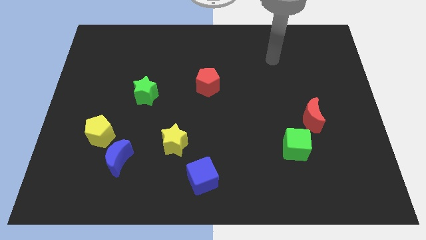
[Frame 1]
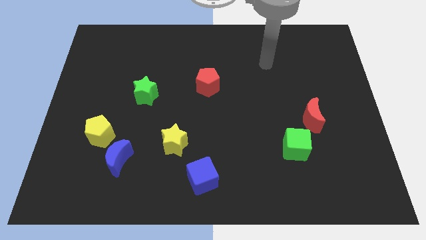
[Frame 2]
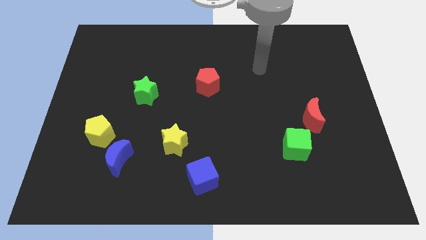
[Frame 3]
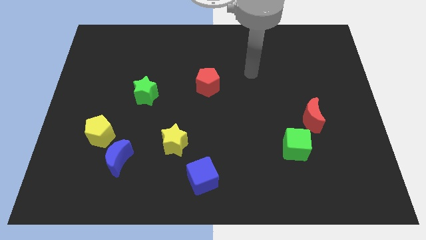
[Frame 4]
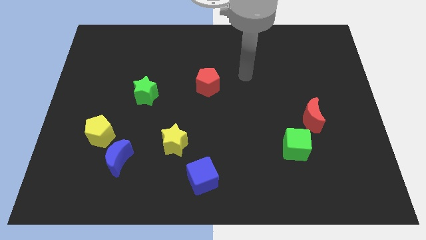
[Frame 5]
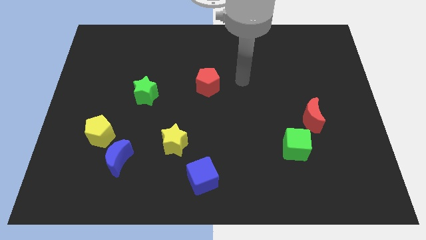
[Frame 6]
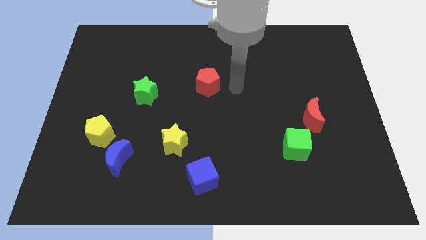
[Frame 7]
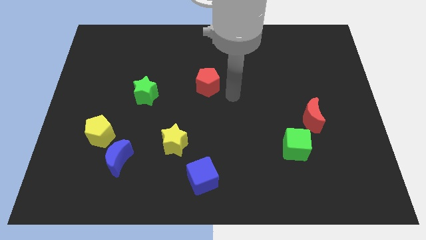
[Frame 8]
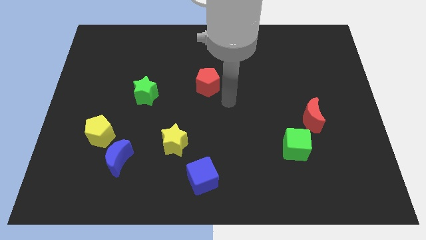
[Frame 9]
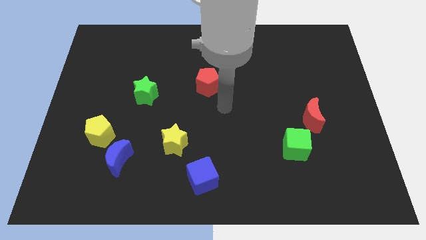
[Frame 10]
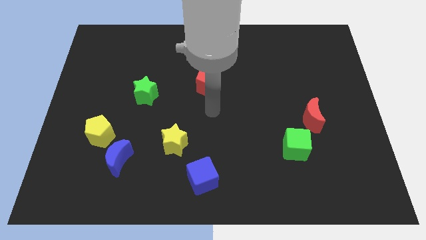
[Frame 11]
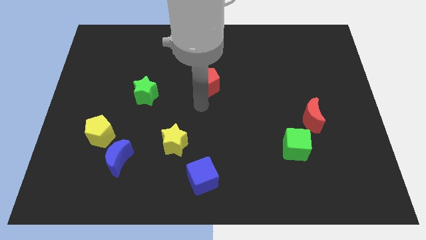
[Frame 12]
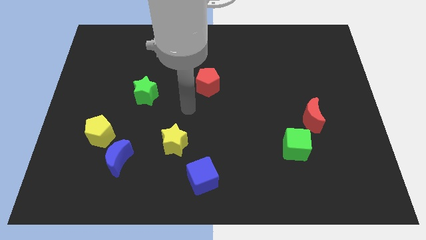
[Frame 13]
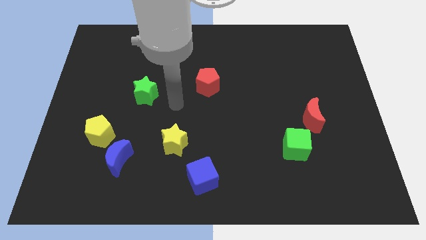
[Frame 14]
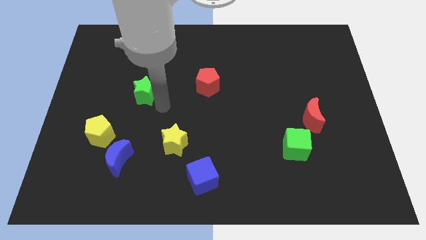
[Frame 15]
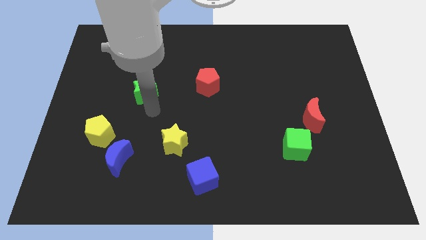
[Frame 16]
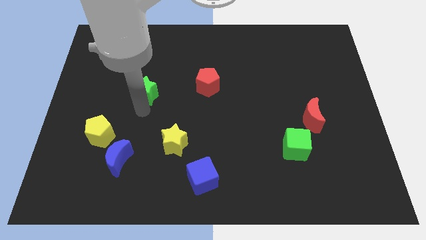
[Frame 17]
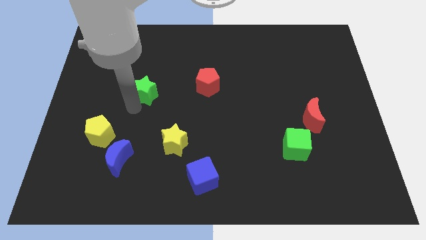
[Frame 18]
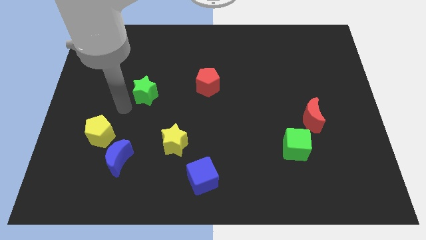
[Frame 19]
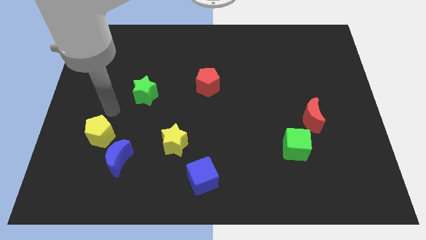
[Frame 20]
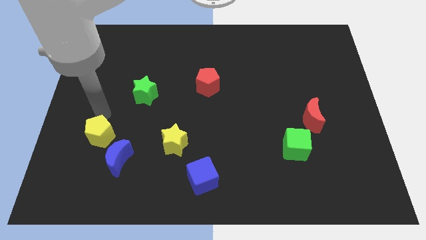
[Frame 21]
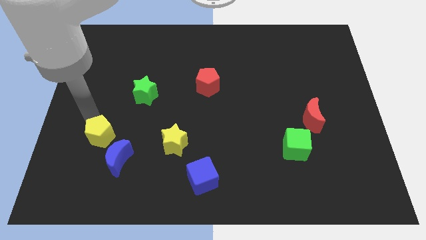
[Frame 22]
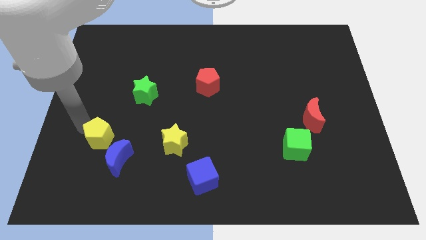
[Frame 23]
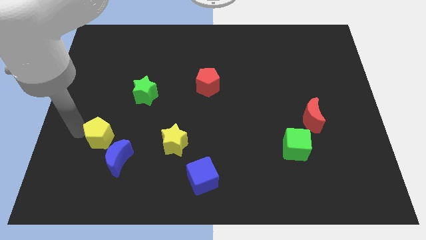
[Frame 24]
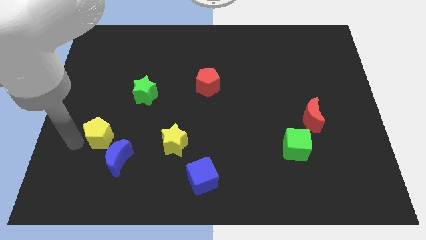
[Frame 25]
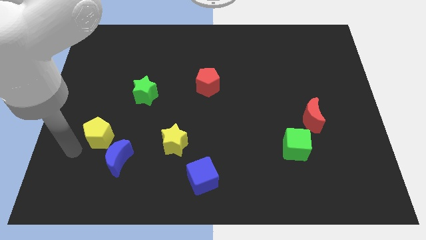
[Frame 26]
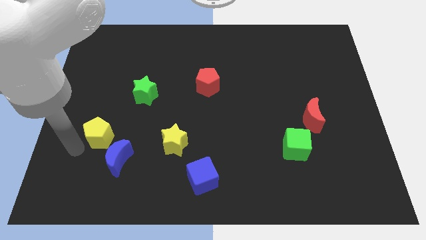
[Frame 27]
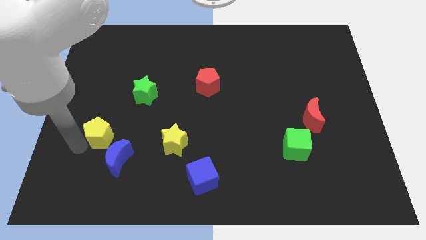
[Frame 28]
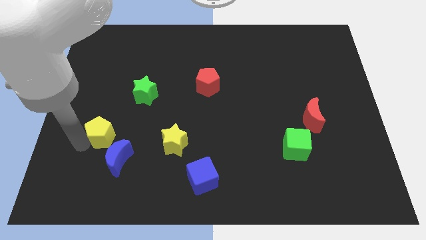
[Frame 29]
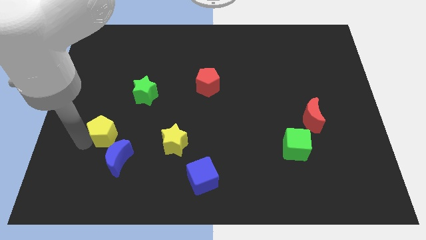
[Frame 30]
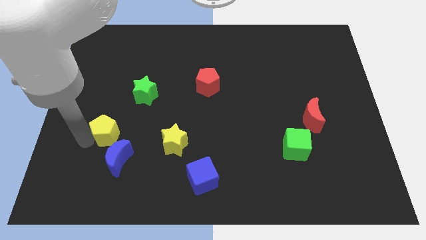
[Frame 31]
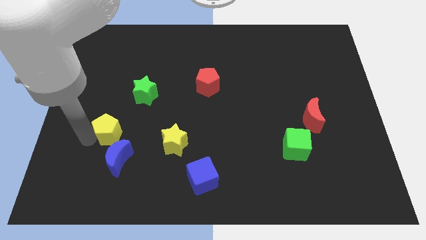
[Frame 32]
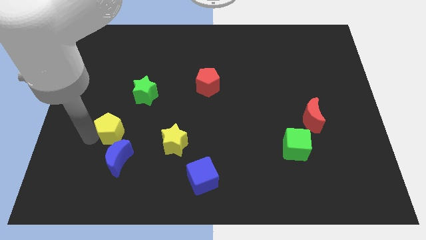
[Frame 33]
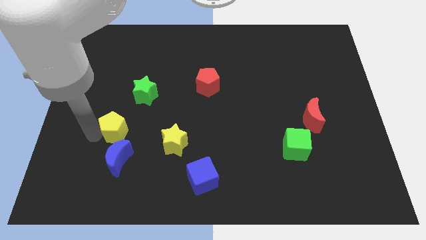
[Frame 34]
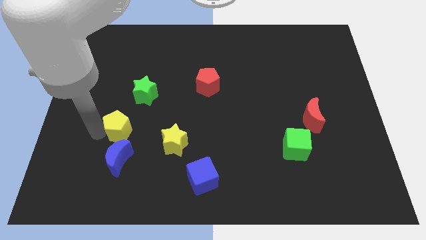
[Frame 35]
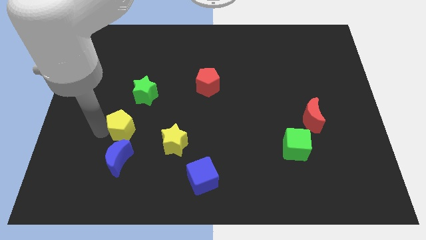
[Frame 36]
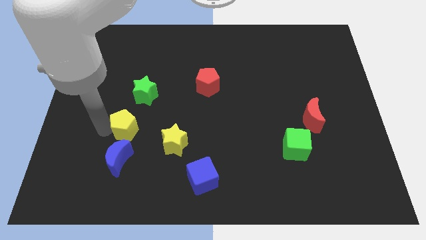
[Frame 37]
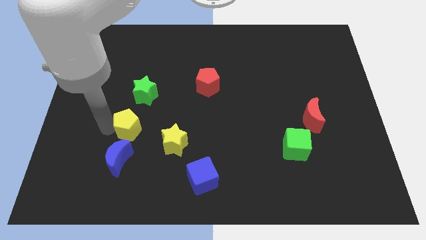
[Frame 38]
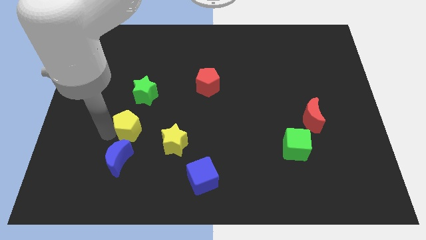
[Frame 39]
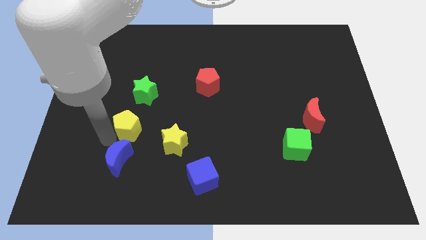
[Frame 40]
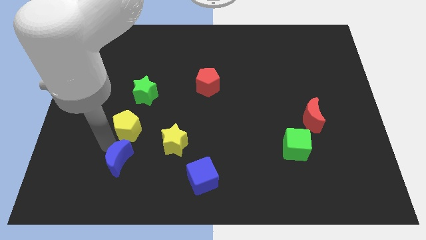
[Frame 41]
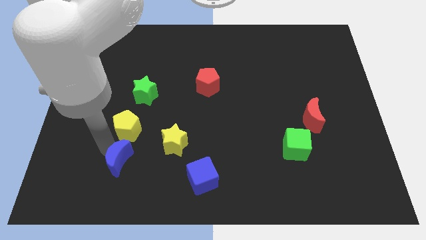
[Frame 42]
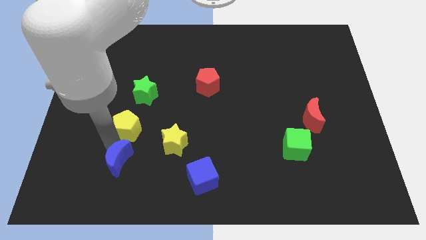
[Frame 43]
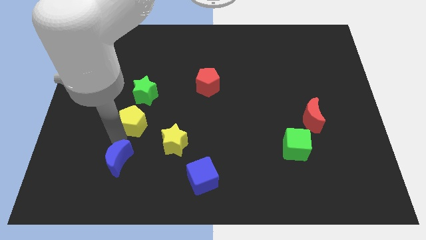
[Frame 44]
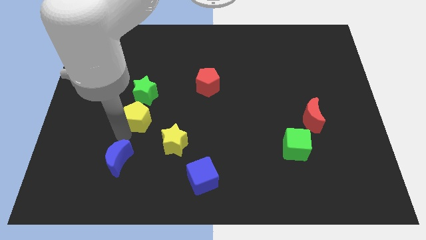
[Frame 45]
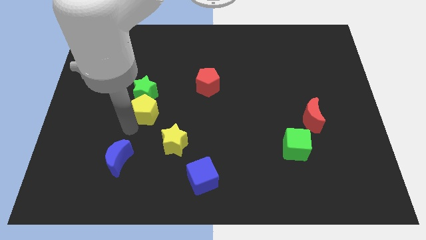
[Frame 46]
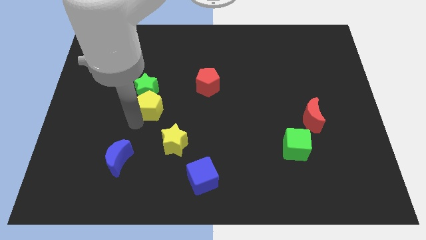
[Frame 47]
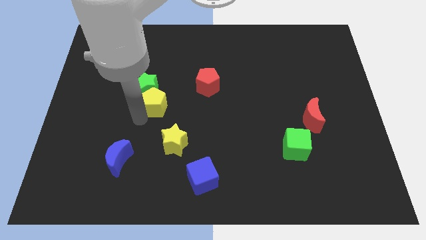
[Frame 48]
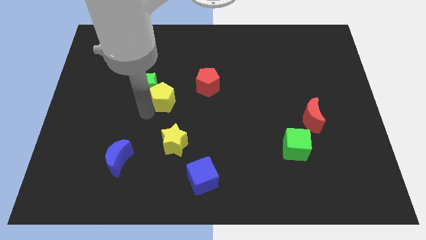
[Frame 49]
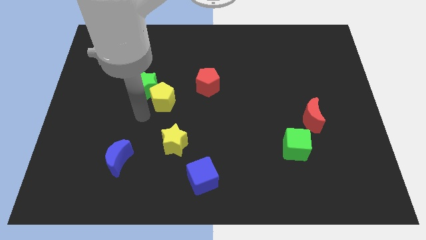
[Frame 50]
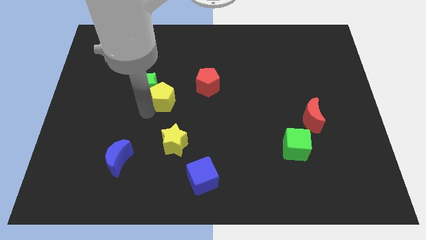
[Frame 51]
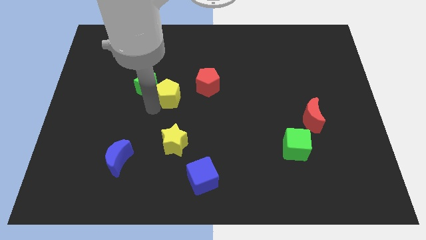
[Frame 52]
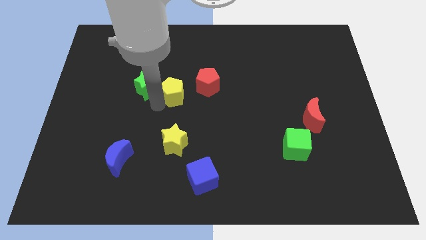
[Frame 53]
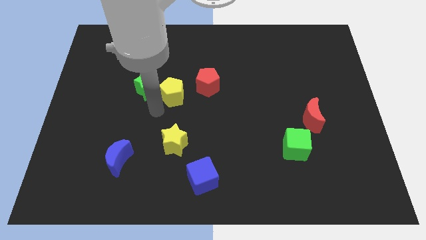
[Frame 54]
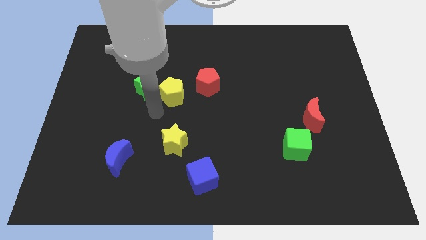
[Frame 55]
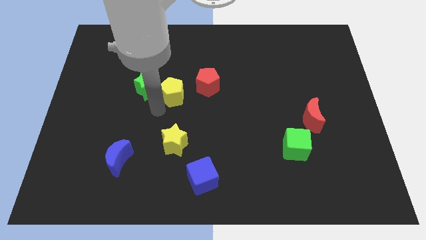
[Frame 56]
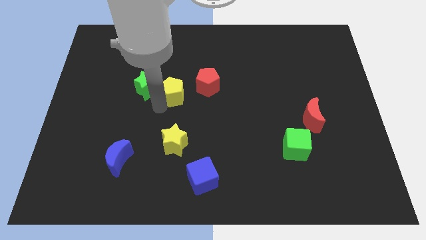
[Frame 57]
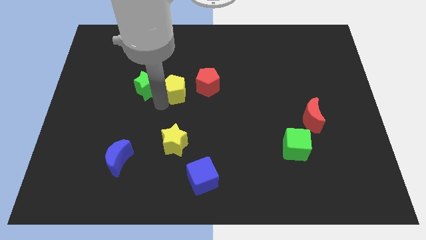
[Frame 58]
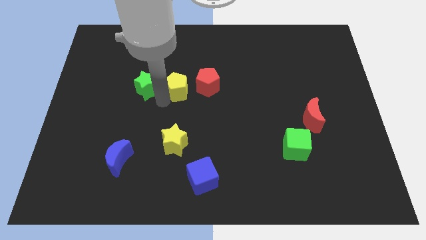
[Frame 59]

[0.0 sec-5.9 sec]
slide the yellow pentagon up and then right

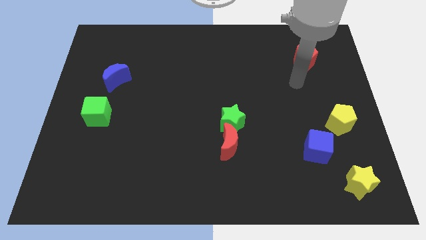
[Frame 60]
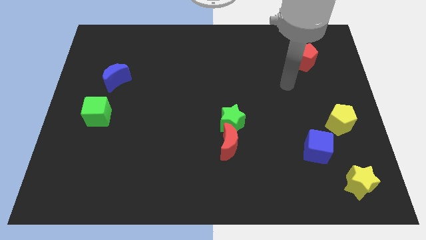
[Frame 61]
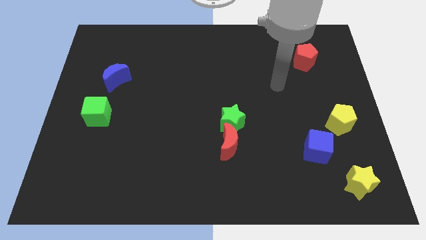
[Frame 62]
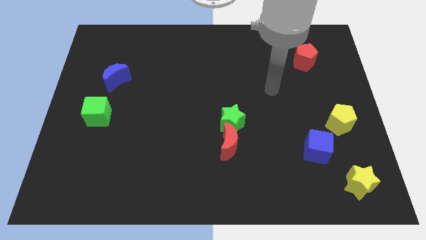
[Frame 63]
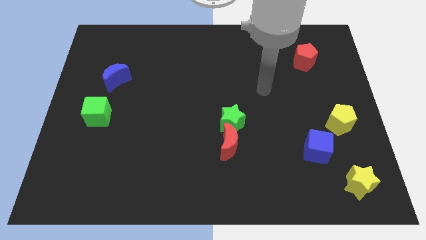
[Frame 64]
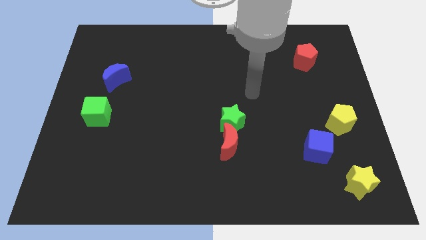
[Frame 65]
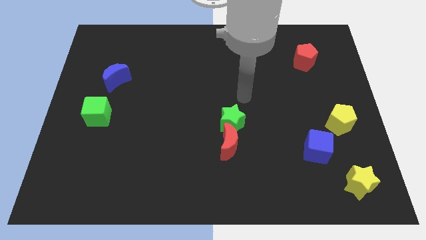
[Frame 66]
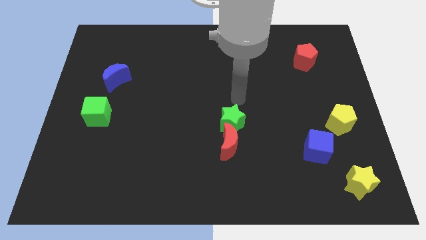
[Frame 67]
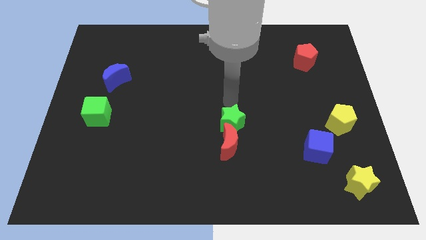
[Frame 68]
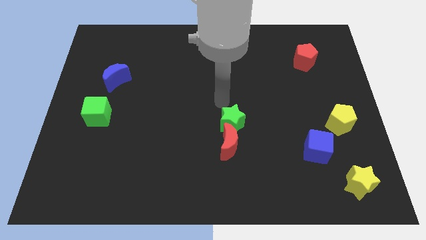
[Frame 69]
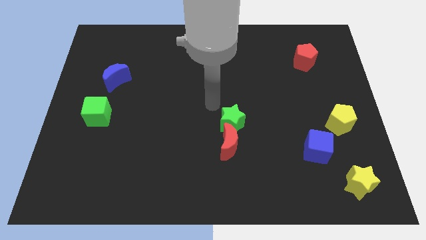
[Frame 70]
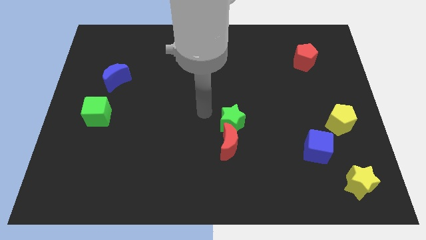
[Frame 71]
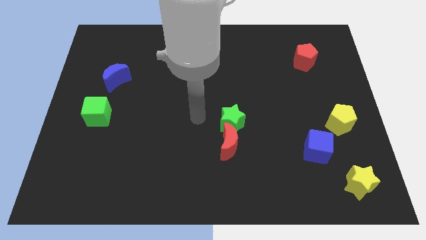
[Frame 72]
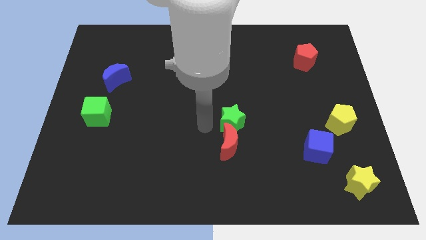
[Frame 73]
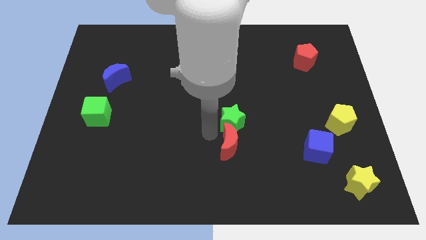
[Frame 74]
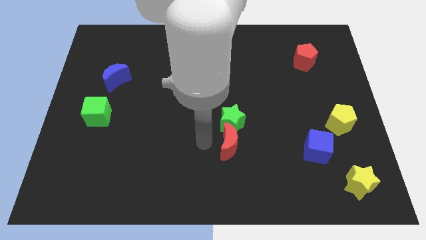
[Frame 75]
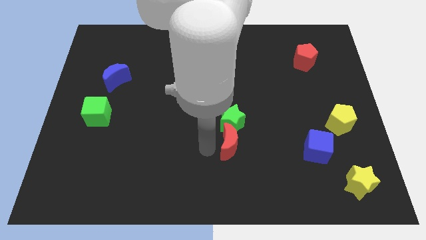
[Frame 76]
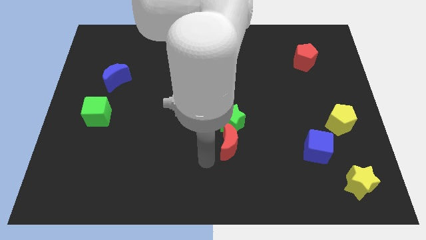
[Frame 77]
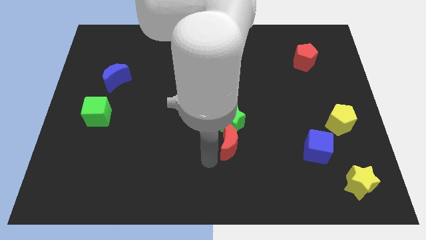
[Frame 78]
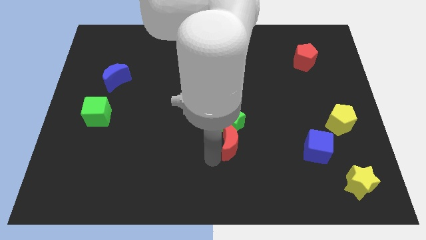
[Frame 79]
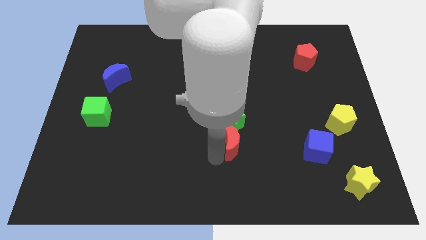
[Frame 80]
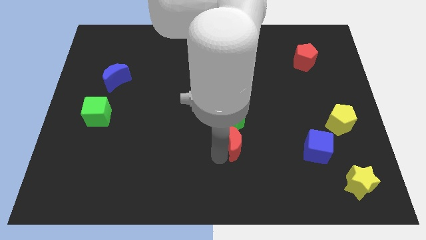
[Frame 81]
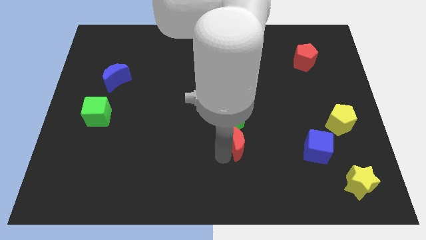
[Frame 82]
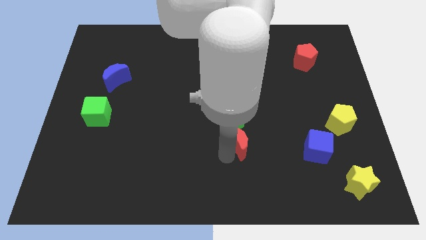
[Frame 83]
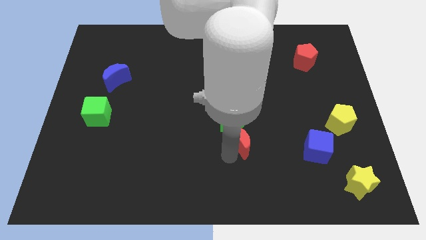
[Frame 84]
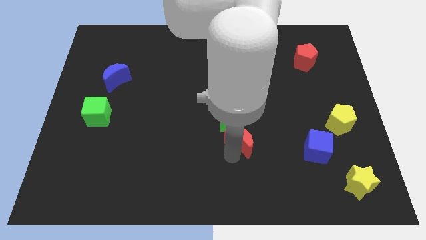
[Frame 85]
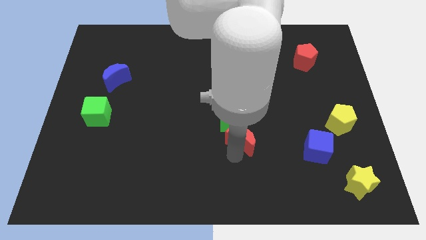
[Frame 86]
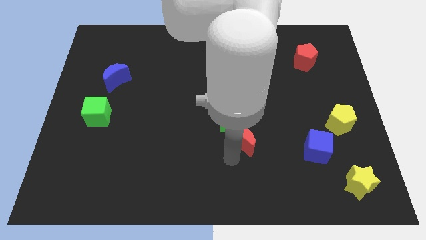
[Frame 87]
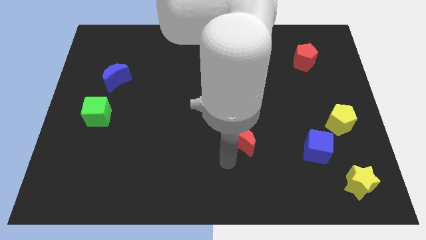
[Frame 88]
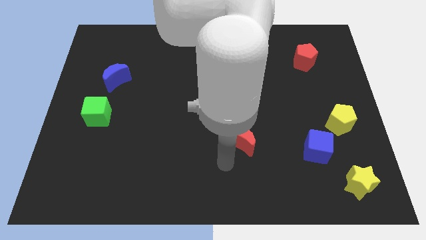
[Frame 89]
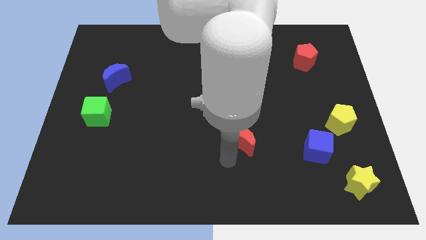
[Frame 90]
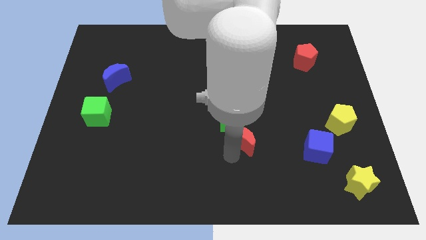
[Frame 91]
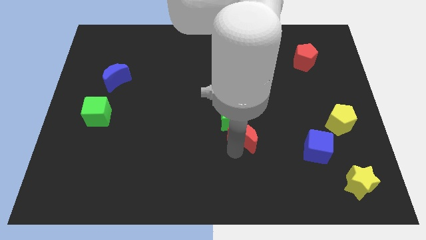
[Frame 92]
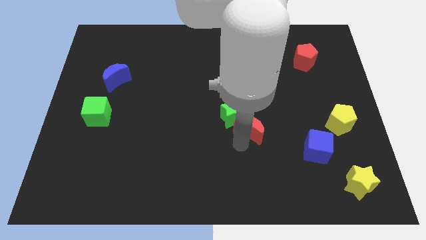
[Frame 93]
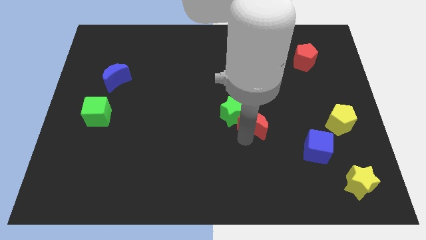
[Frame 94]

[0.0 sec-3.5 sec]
move the red moon up and right slightly
